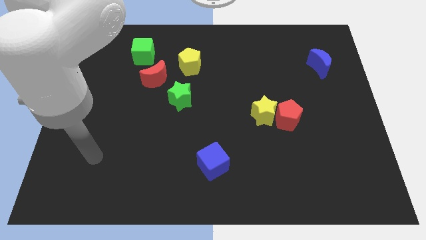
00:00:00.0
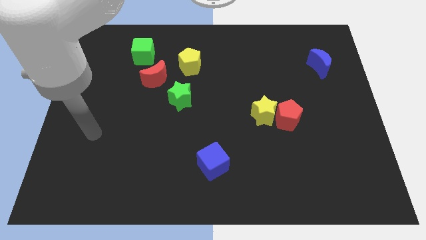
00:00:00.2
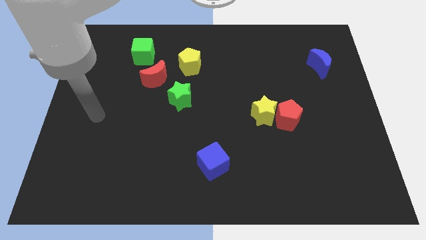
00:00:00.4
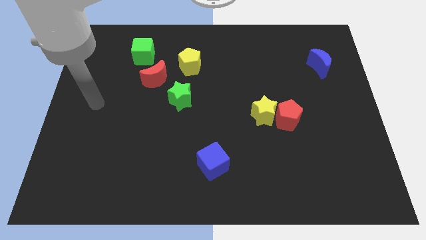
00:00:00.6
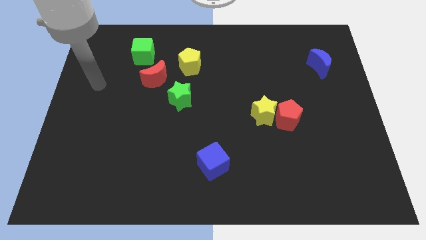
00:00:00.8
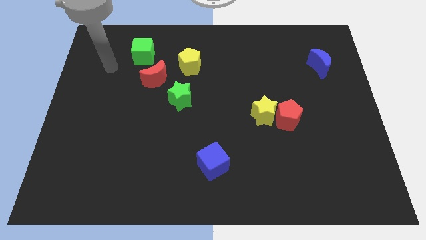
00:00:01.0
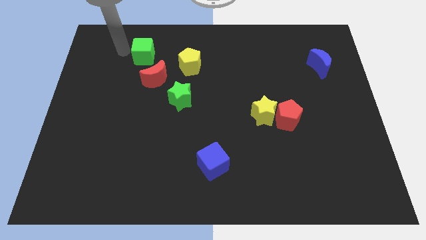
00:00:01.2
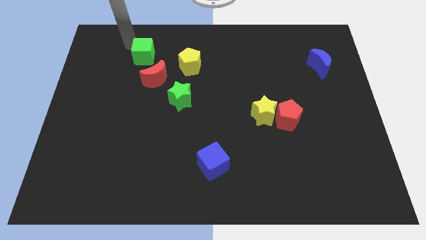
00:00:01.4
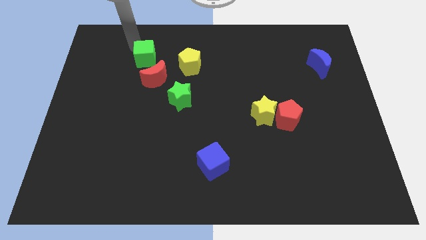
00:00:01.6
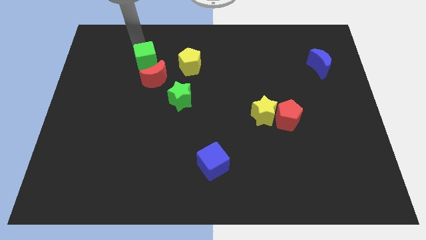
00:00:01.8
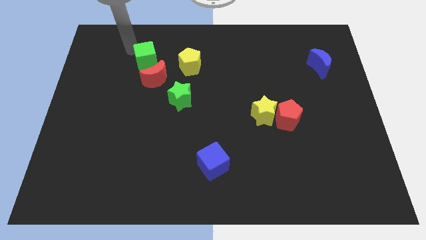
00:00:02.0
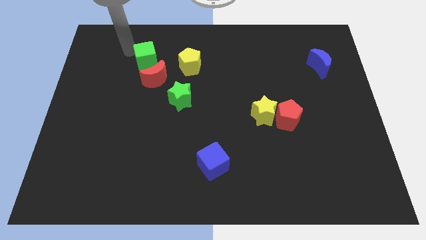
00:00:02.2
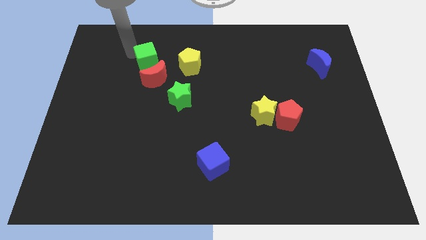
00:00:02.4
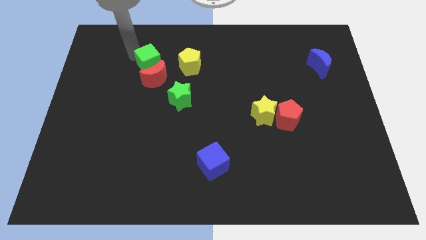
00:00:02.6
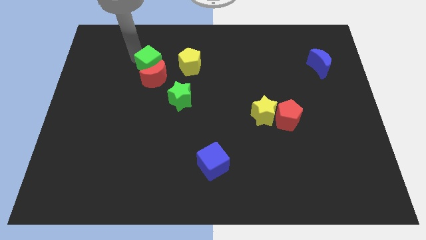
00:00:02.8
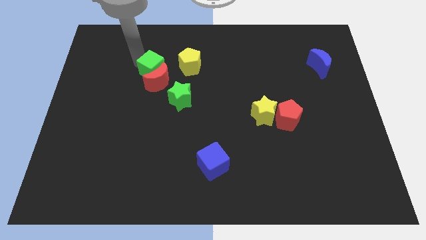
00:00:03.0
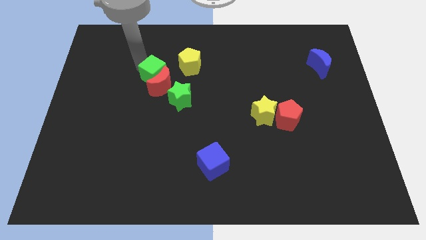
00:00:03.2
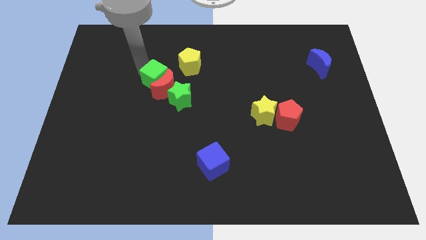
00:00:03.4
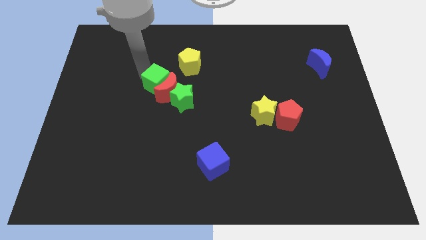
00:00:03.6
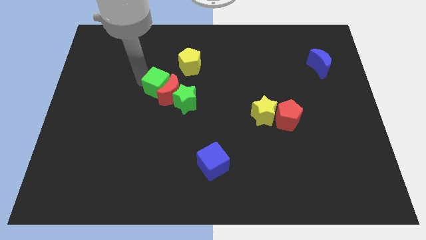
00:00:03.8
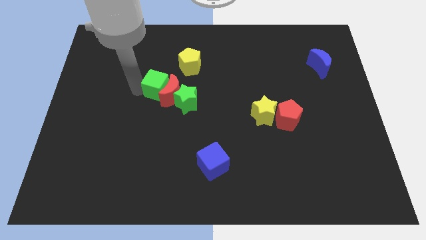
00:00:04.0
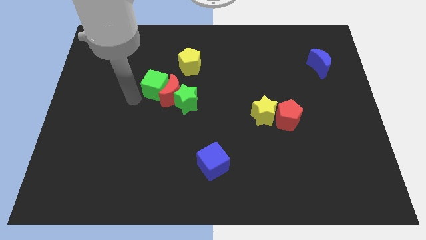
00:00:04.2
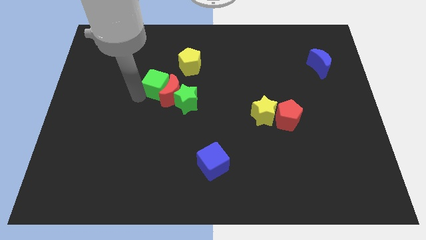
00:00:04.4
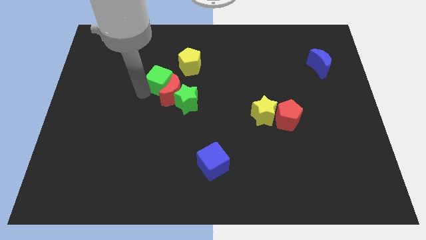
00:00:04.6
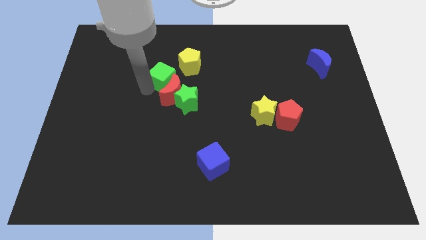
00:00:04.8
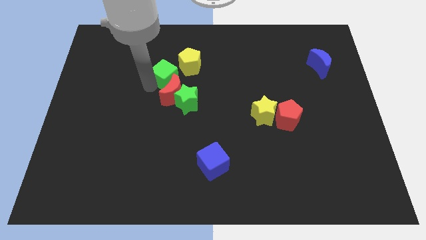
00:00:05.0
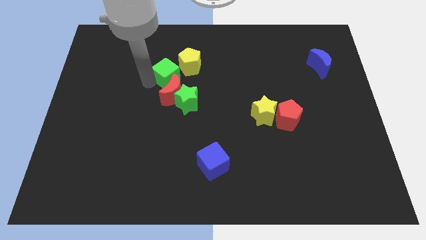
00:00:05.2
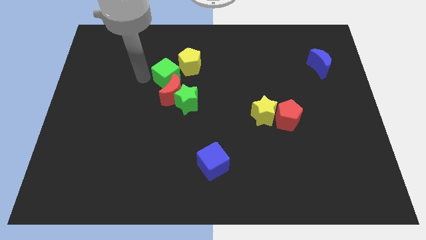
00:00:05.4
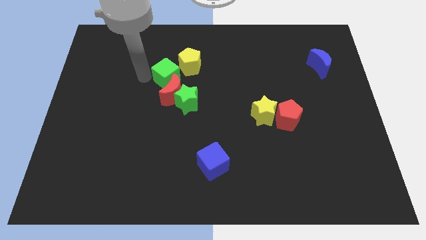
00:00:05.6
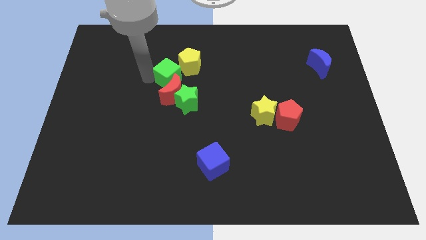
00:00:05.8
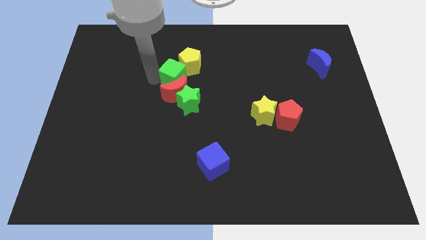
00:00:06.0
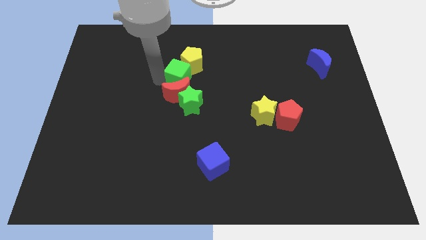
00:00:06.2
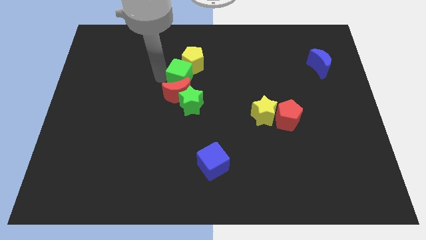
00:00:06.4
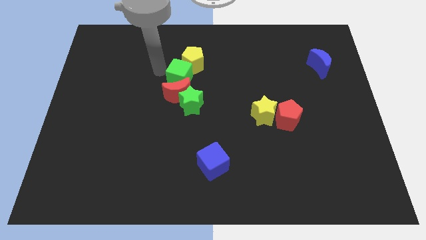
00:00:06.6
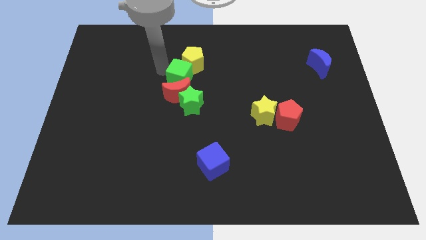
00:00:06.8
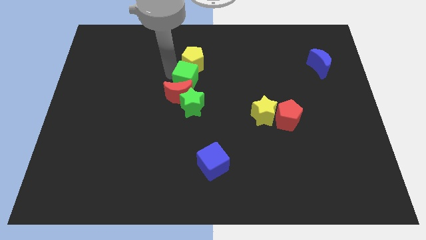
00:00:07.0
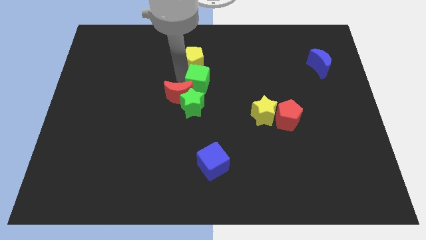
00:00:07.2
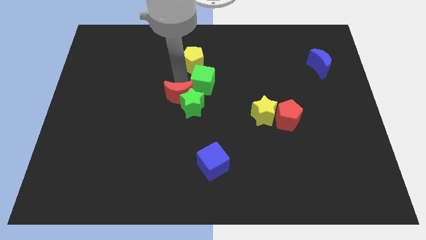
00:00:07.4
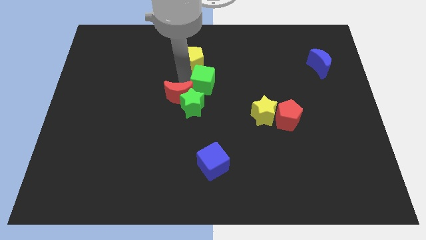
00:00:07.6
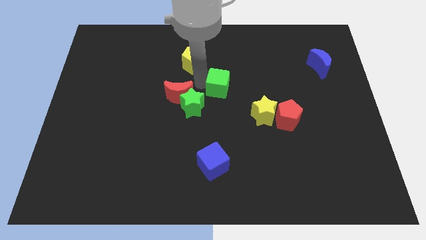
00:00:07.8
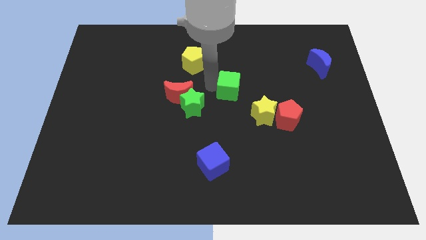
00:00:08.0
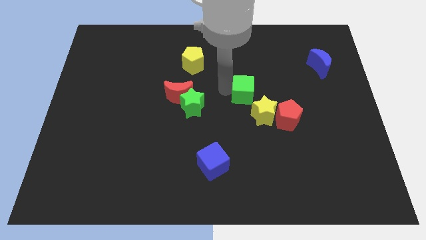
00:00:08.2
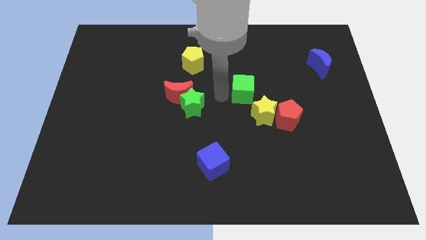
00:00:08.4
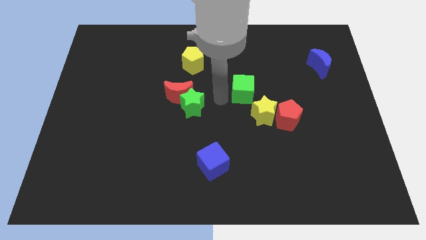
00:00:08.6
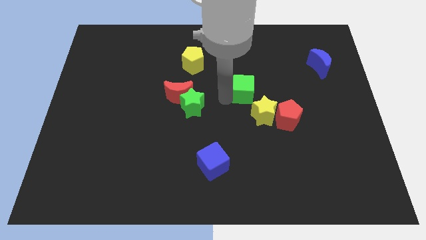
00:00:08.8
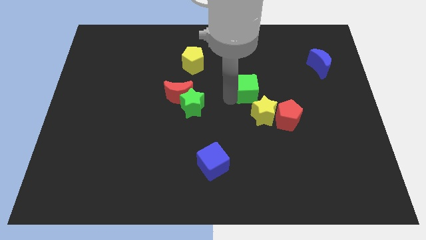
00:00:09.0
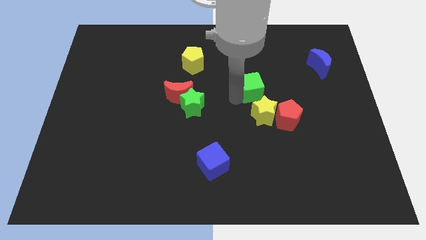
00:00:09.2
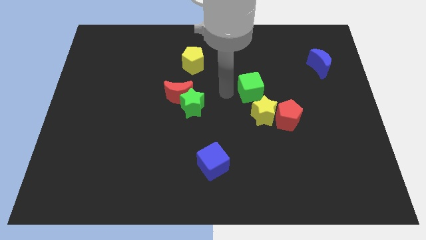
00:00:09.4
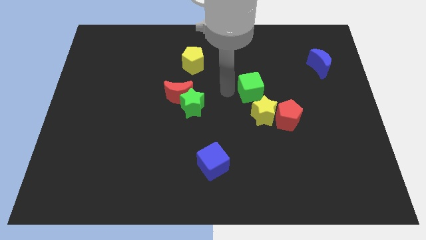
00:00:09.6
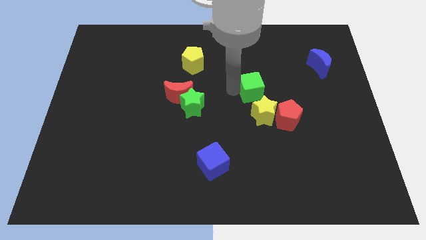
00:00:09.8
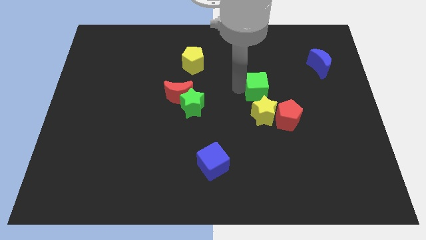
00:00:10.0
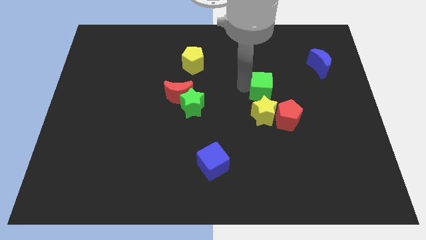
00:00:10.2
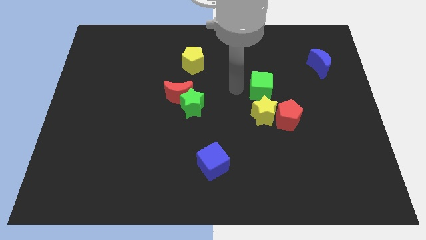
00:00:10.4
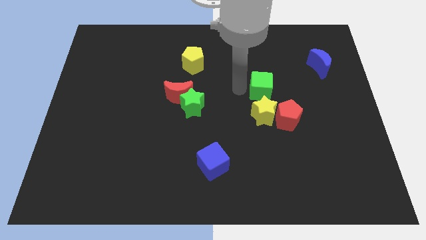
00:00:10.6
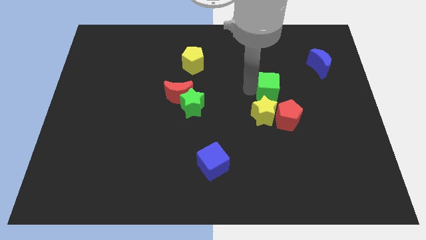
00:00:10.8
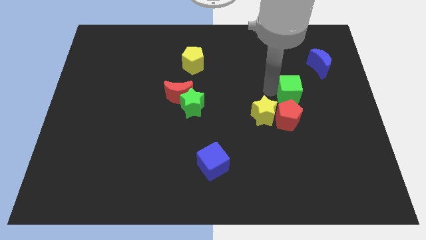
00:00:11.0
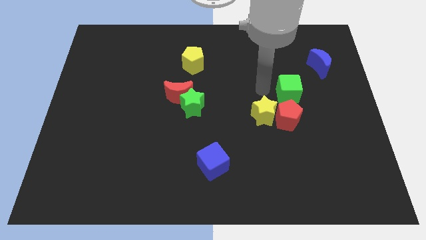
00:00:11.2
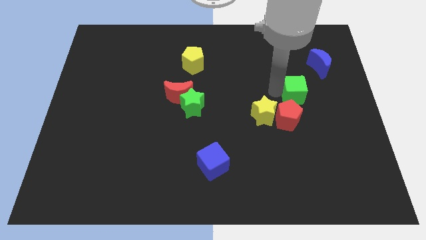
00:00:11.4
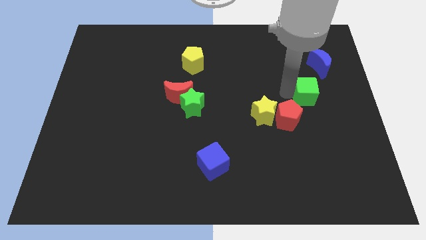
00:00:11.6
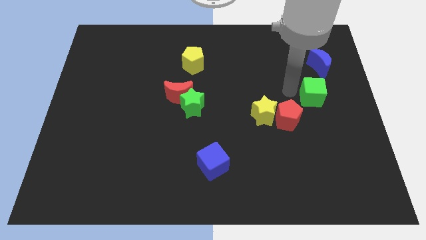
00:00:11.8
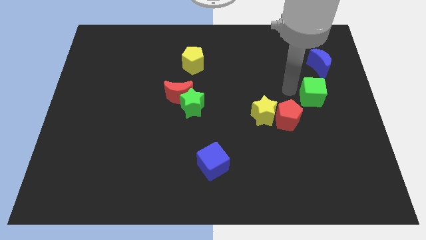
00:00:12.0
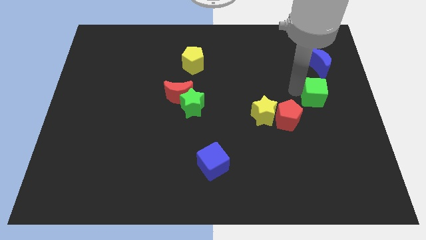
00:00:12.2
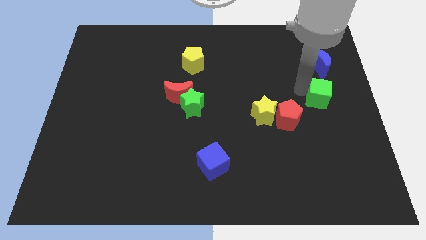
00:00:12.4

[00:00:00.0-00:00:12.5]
put the green cube to the center right

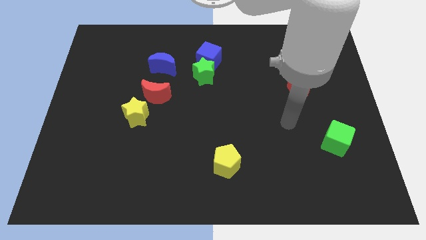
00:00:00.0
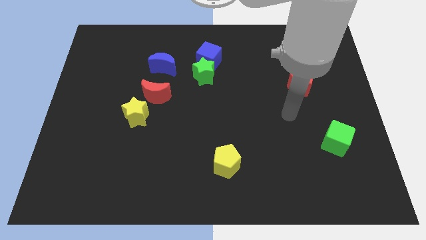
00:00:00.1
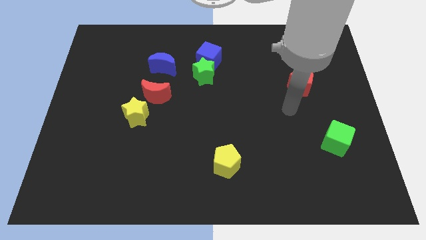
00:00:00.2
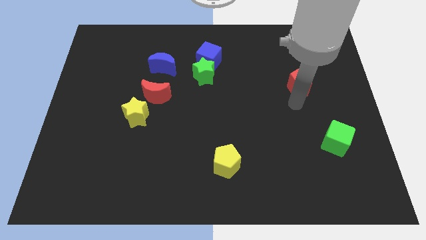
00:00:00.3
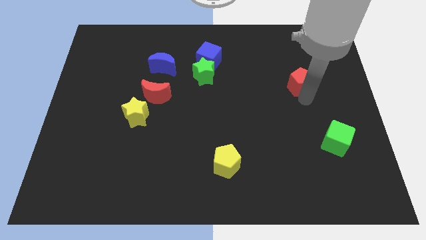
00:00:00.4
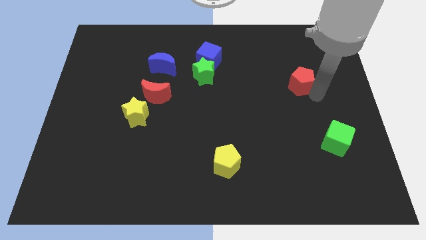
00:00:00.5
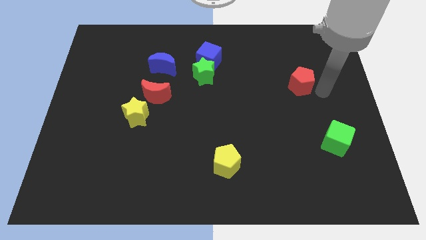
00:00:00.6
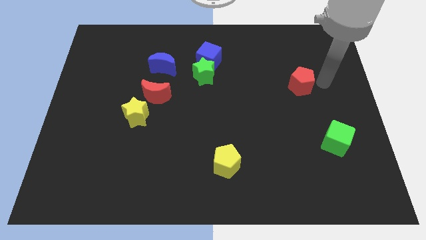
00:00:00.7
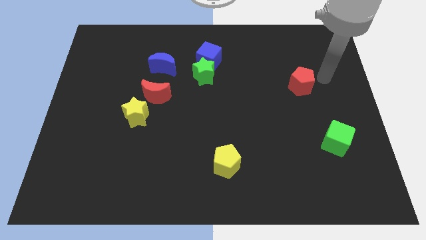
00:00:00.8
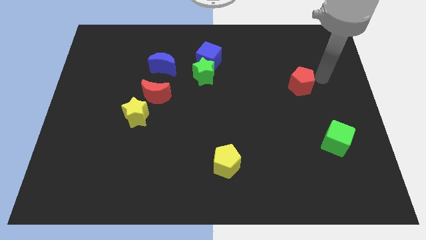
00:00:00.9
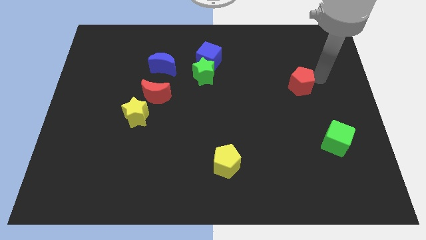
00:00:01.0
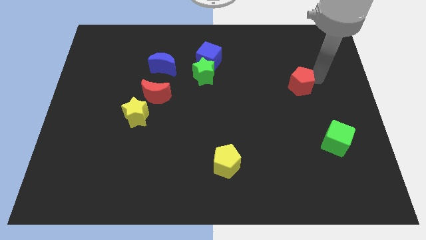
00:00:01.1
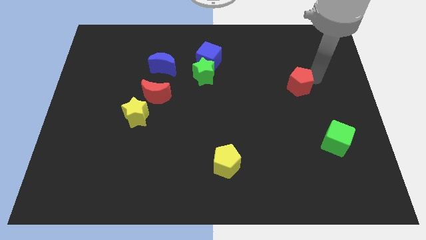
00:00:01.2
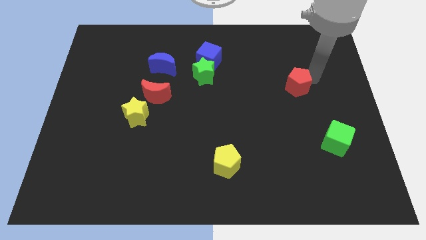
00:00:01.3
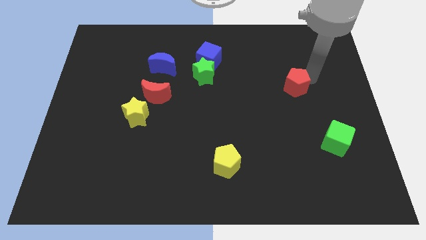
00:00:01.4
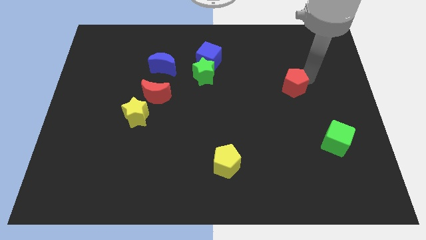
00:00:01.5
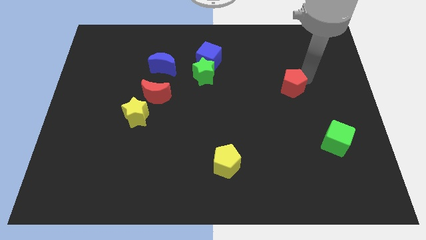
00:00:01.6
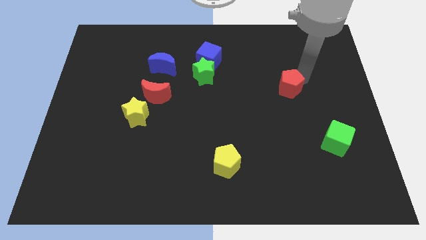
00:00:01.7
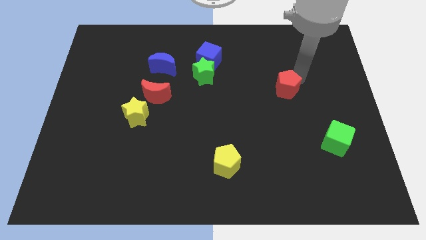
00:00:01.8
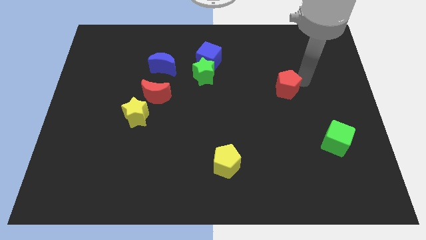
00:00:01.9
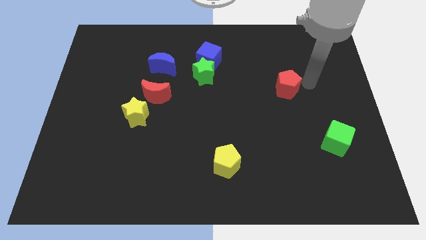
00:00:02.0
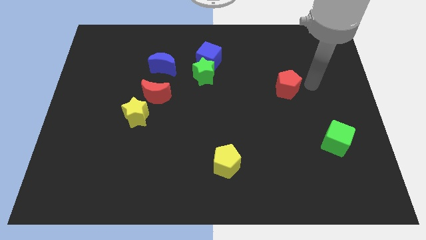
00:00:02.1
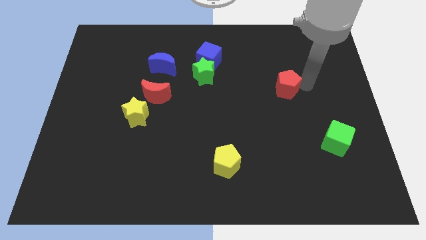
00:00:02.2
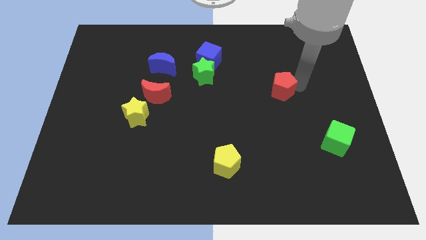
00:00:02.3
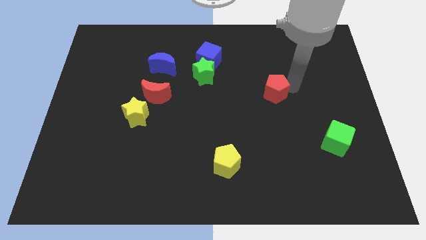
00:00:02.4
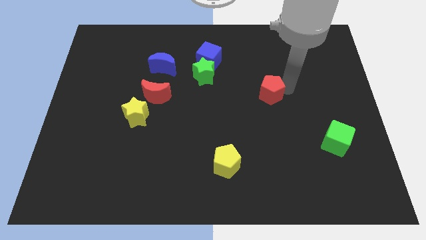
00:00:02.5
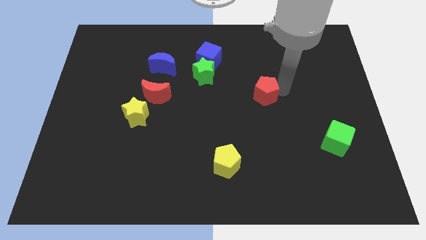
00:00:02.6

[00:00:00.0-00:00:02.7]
slide the red pentagon to the center of the board
